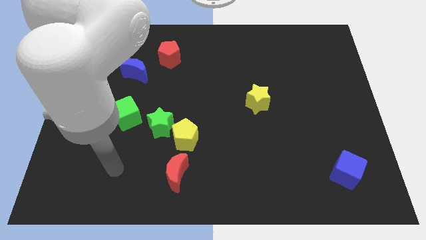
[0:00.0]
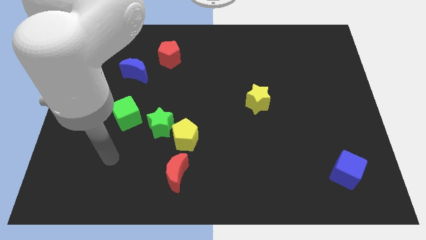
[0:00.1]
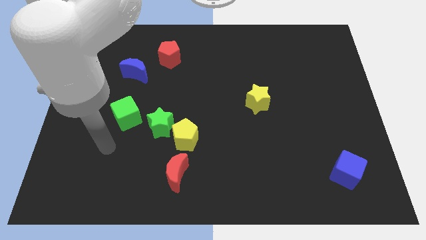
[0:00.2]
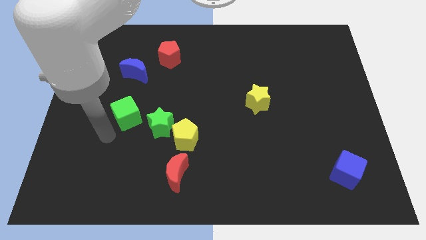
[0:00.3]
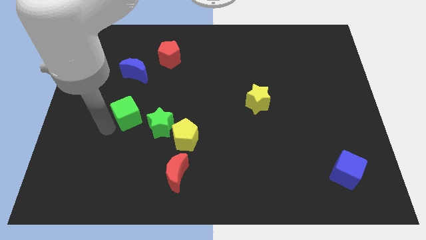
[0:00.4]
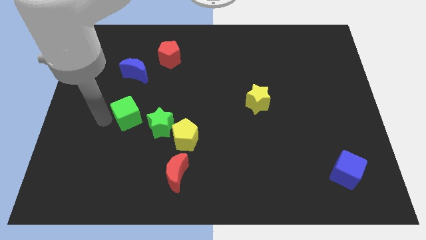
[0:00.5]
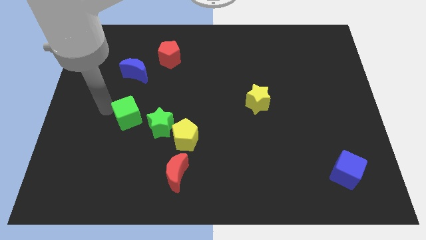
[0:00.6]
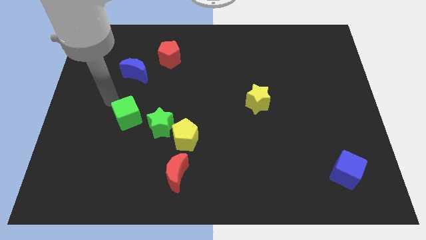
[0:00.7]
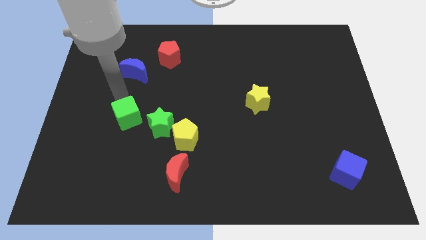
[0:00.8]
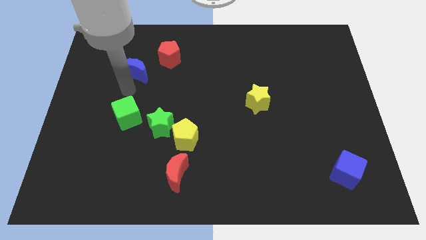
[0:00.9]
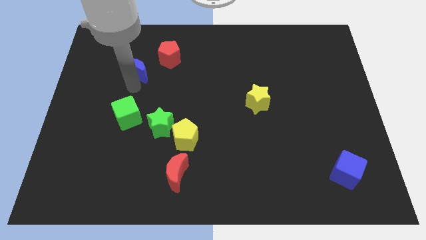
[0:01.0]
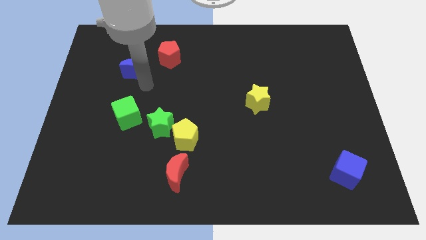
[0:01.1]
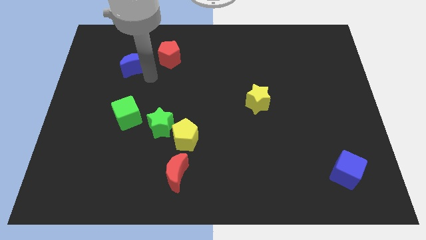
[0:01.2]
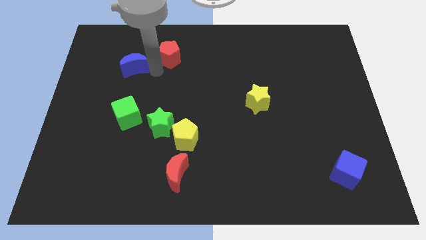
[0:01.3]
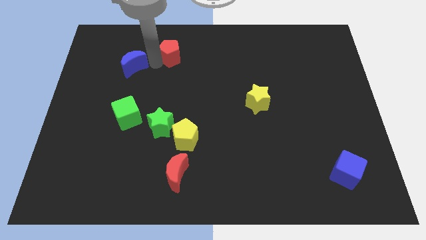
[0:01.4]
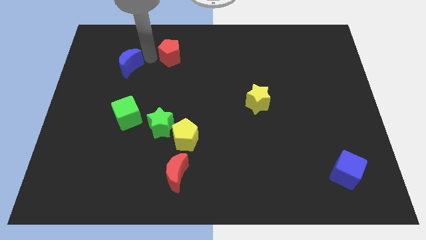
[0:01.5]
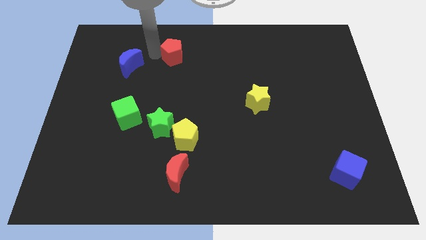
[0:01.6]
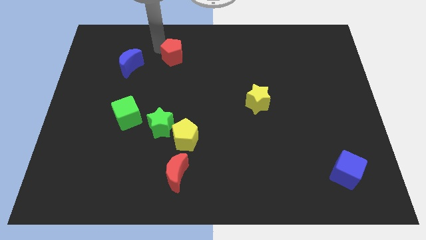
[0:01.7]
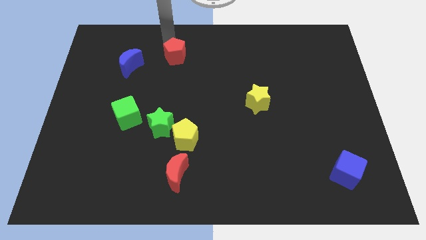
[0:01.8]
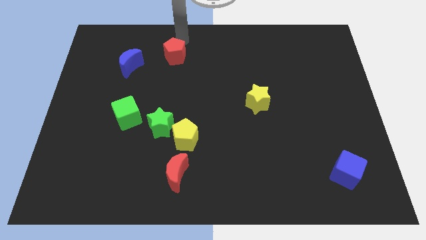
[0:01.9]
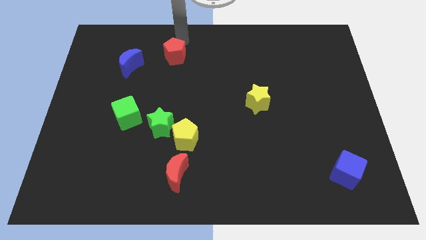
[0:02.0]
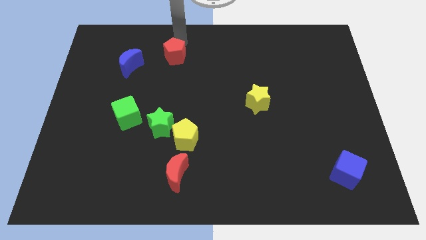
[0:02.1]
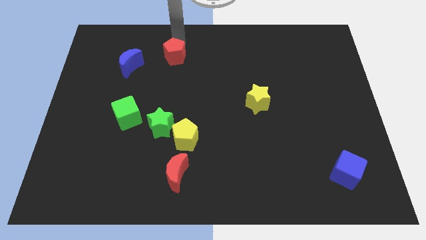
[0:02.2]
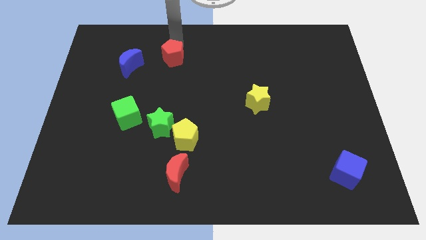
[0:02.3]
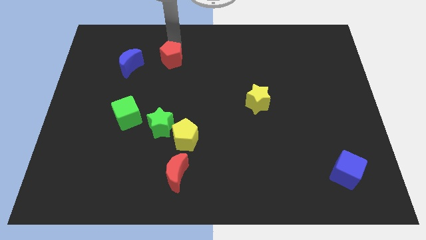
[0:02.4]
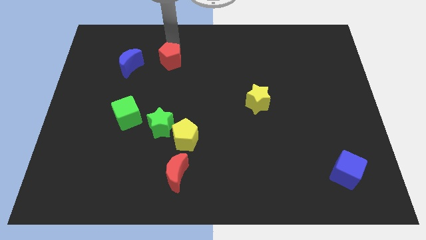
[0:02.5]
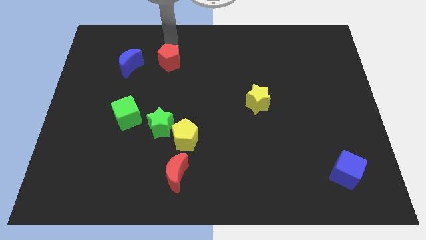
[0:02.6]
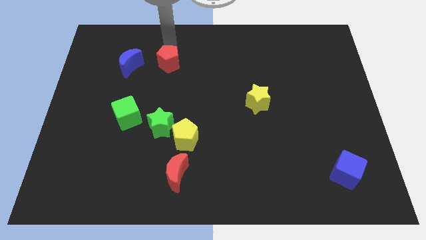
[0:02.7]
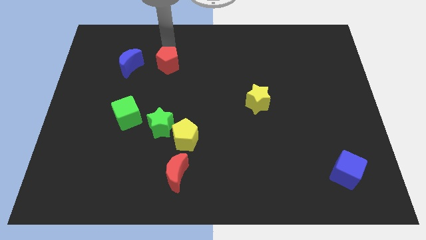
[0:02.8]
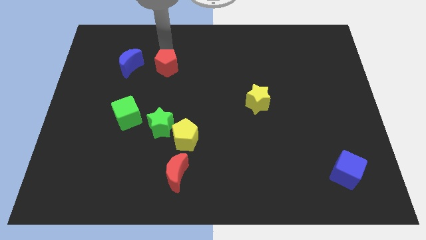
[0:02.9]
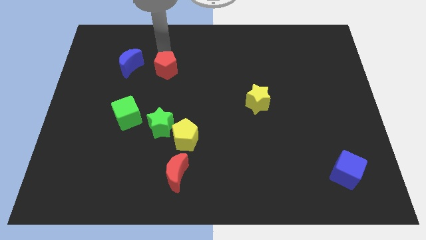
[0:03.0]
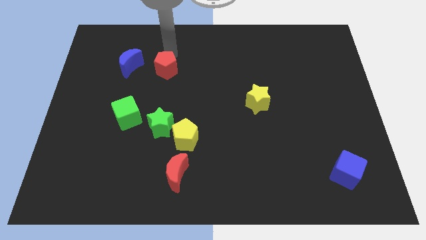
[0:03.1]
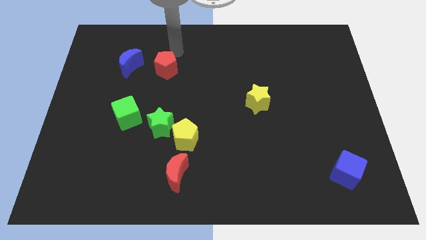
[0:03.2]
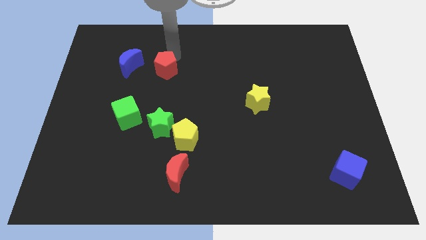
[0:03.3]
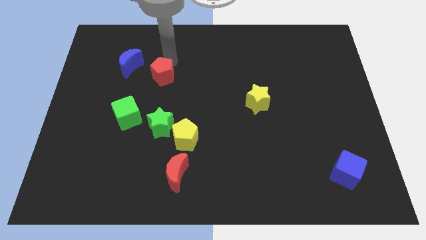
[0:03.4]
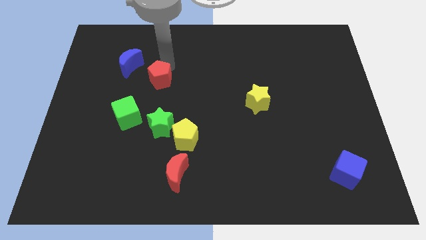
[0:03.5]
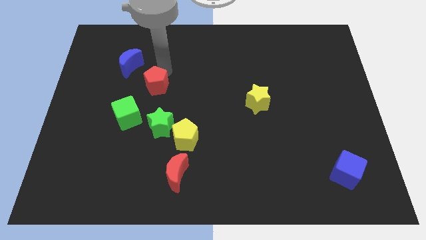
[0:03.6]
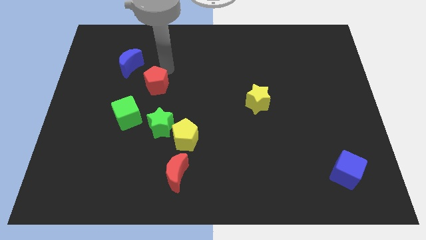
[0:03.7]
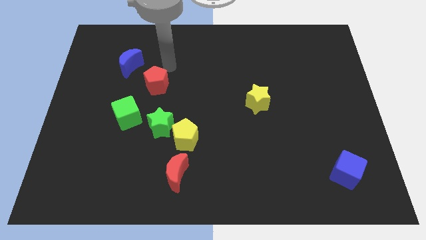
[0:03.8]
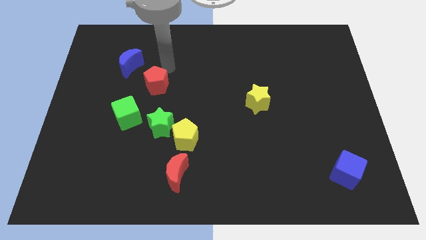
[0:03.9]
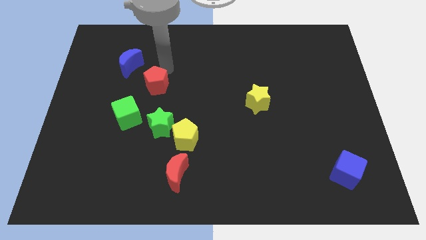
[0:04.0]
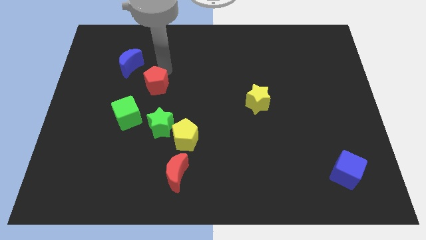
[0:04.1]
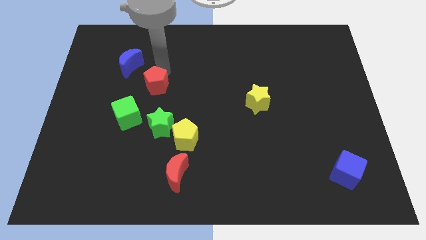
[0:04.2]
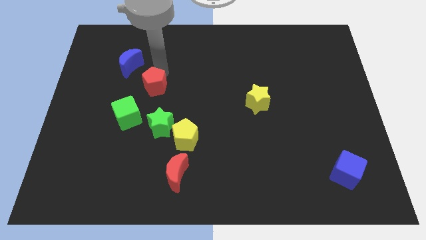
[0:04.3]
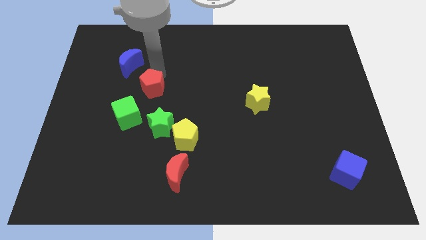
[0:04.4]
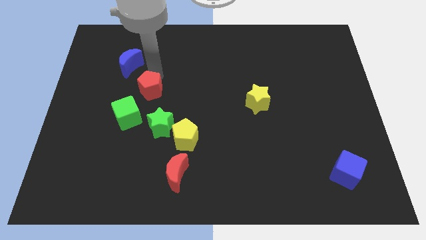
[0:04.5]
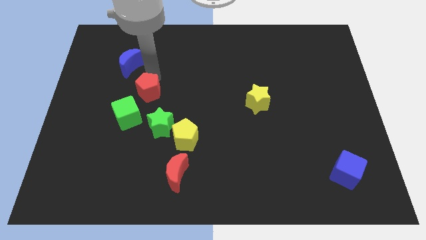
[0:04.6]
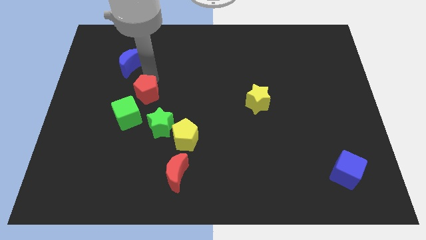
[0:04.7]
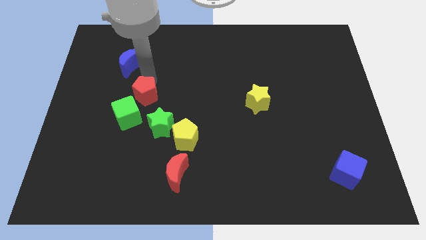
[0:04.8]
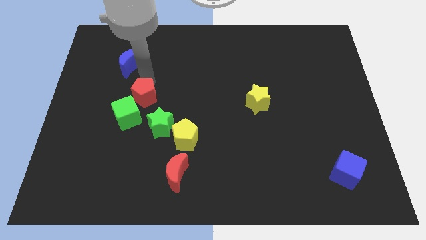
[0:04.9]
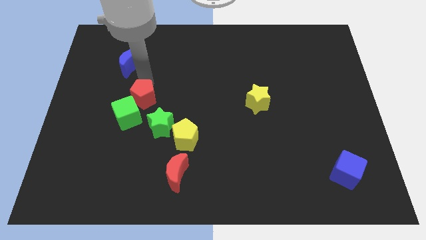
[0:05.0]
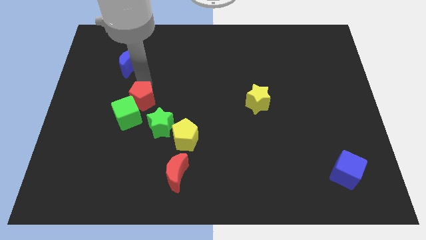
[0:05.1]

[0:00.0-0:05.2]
push the red pentagon next to the green cube

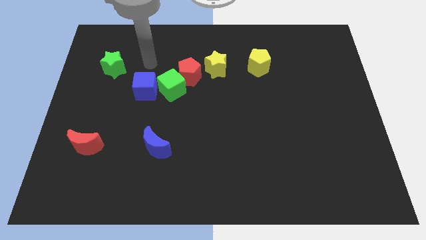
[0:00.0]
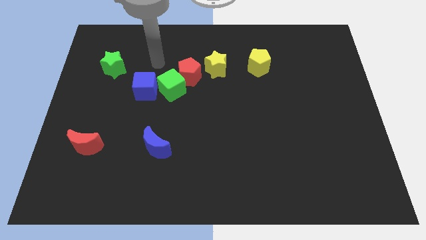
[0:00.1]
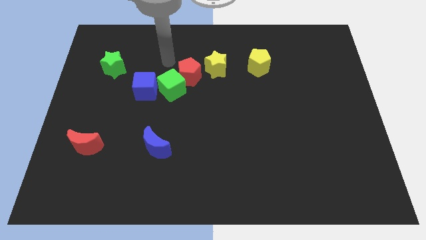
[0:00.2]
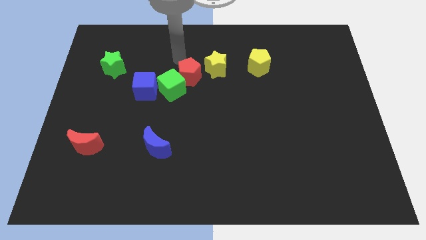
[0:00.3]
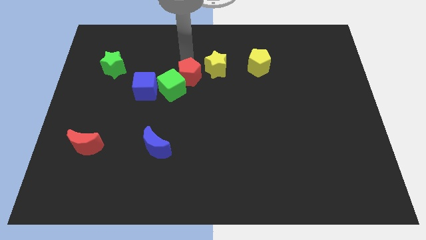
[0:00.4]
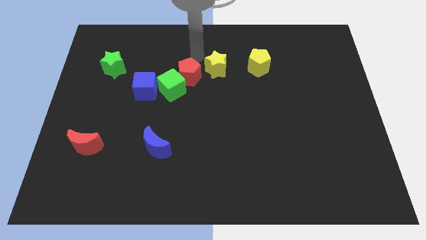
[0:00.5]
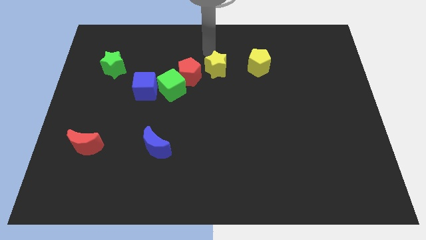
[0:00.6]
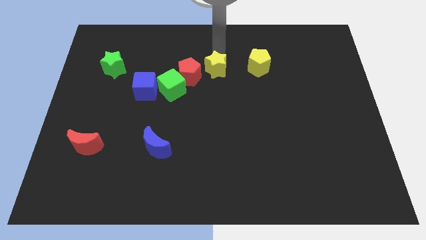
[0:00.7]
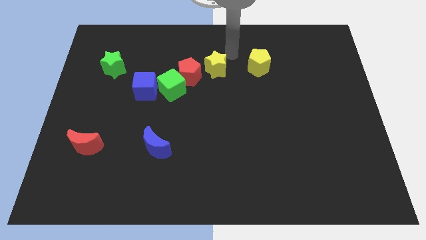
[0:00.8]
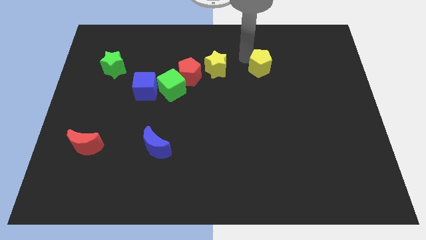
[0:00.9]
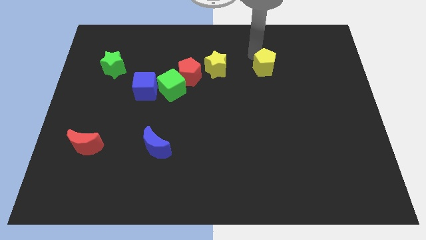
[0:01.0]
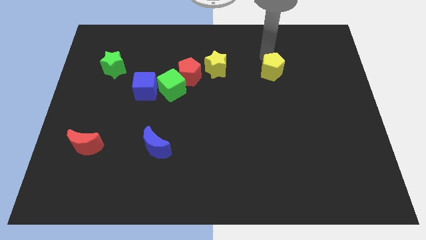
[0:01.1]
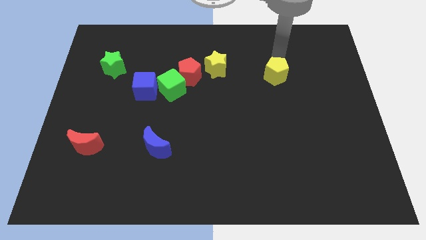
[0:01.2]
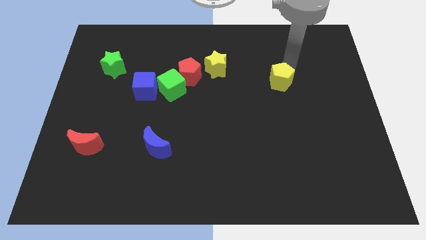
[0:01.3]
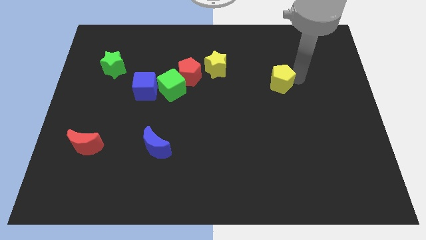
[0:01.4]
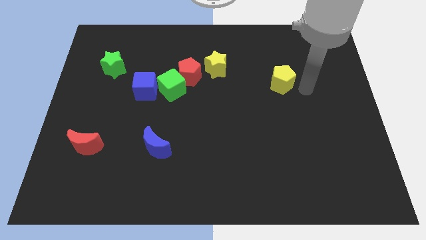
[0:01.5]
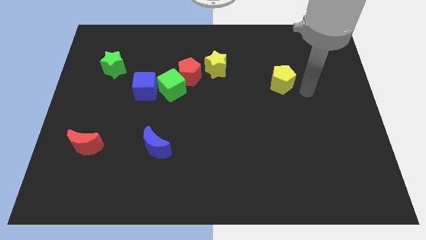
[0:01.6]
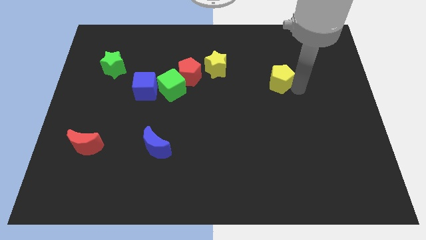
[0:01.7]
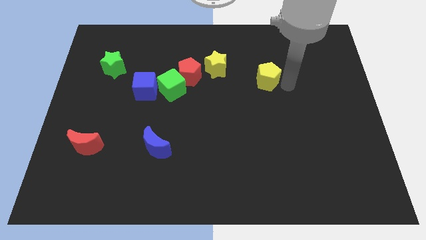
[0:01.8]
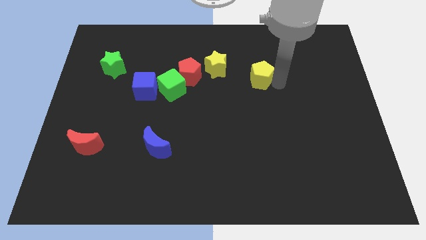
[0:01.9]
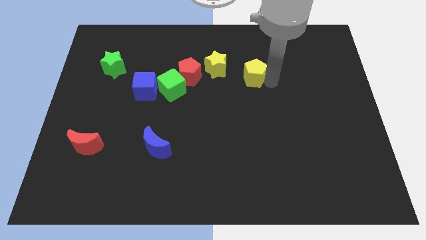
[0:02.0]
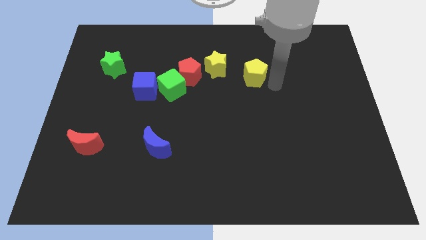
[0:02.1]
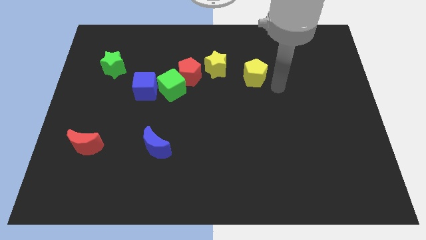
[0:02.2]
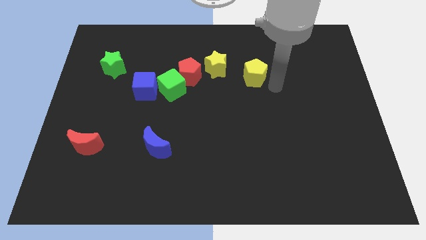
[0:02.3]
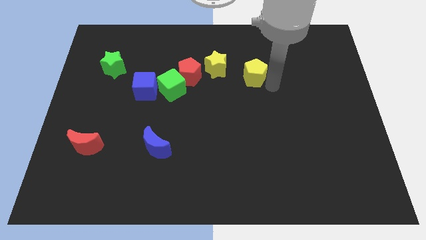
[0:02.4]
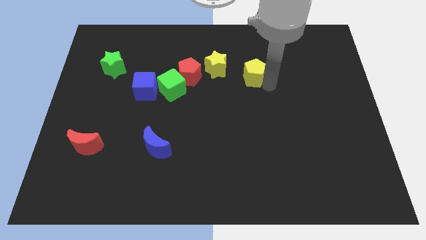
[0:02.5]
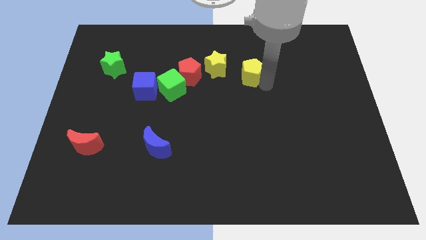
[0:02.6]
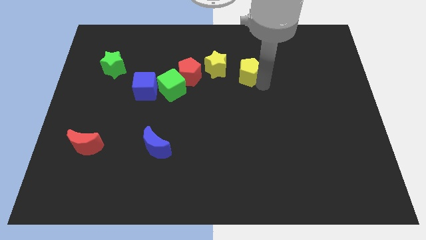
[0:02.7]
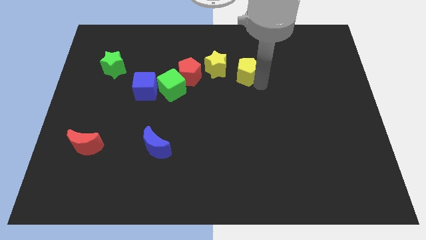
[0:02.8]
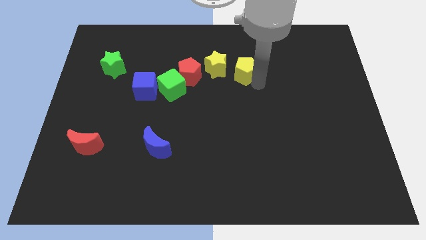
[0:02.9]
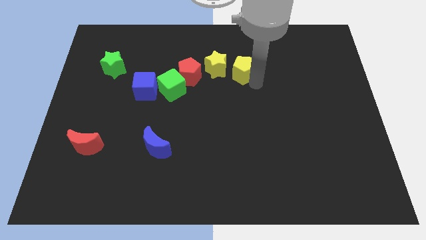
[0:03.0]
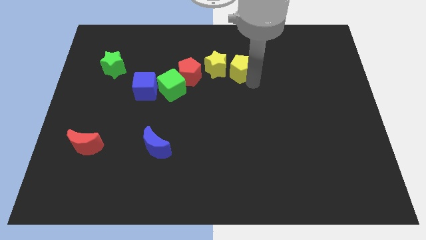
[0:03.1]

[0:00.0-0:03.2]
put the yellow pentagon next to the yellow star
